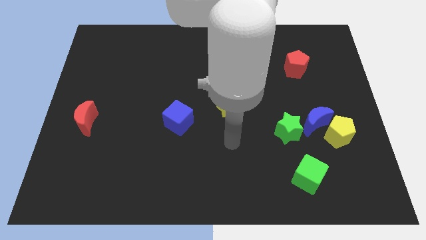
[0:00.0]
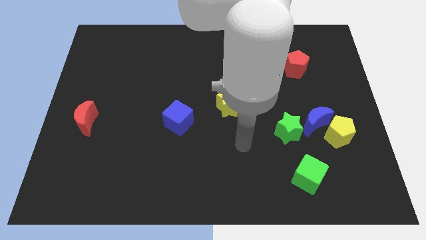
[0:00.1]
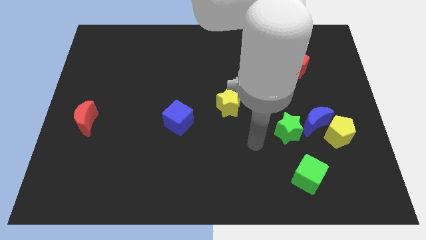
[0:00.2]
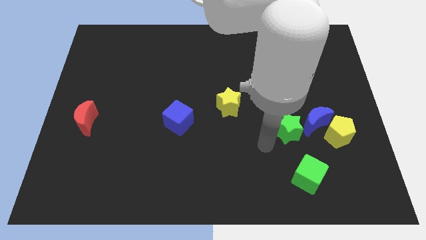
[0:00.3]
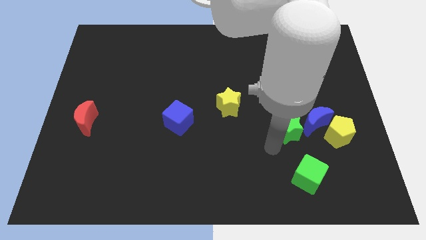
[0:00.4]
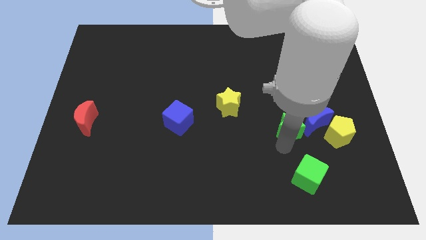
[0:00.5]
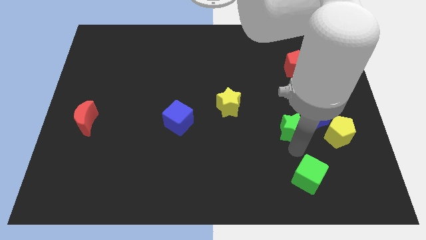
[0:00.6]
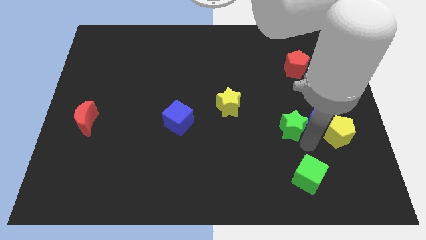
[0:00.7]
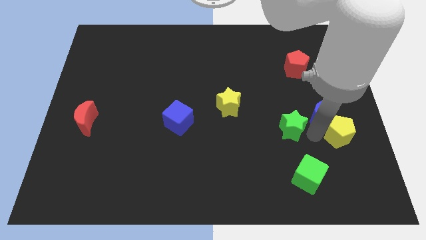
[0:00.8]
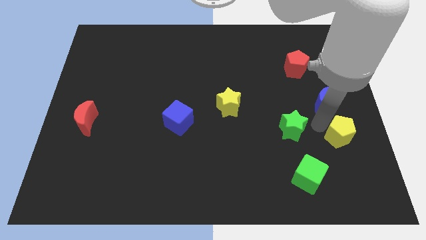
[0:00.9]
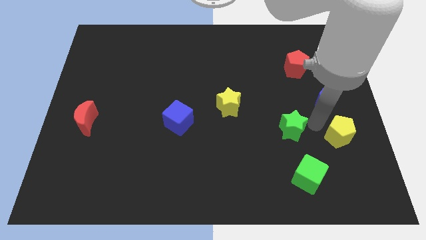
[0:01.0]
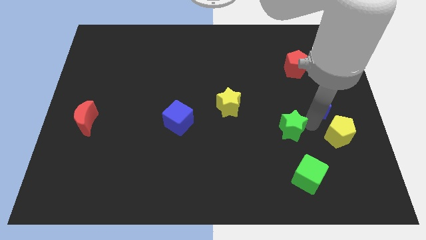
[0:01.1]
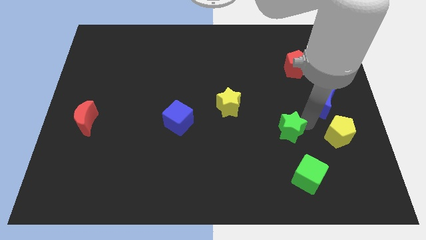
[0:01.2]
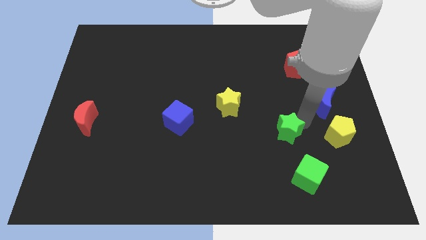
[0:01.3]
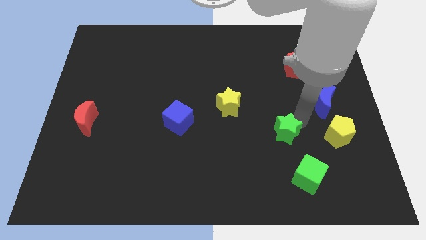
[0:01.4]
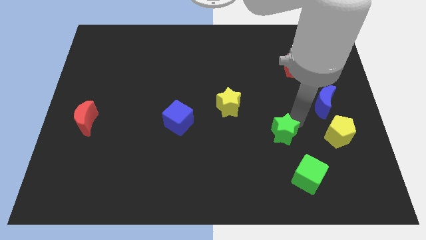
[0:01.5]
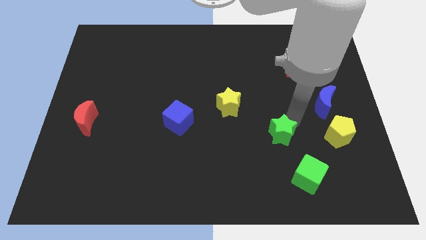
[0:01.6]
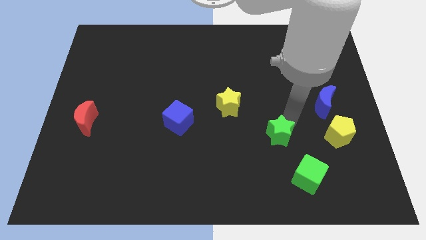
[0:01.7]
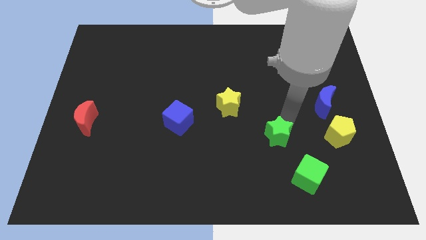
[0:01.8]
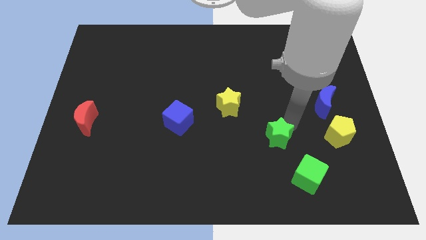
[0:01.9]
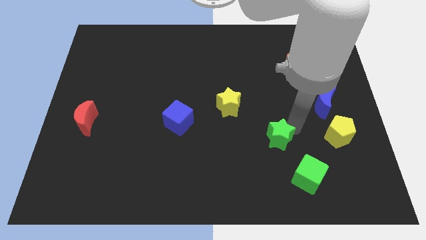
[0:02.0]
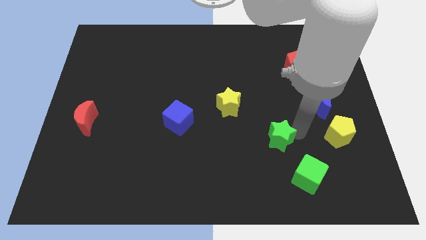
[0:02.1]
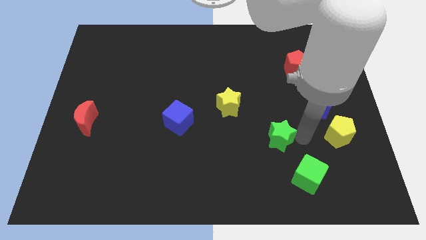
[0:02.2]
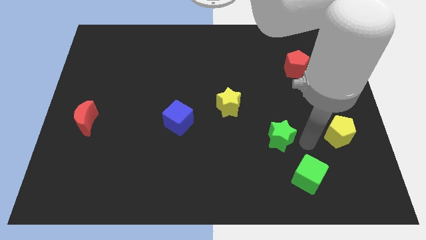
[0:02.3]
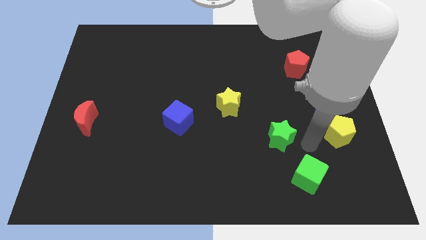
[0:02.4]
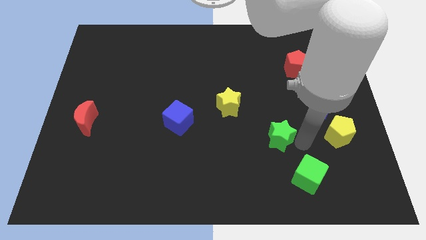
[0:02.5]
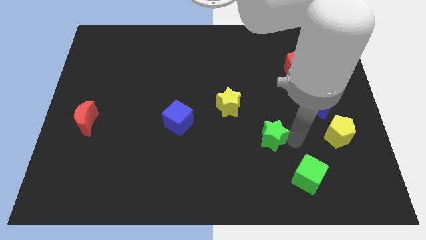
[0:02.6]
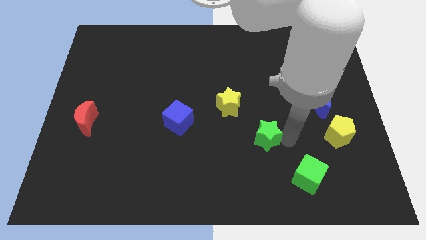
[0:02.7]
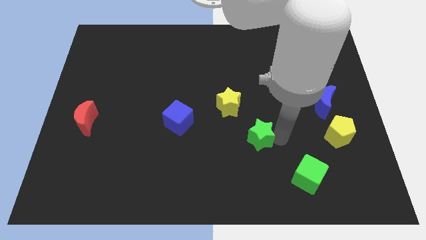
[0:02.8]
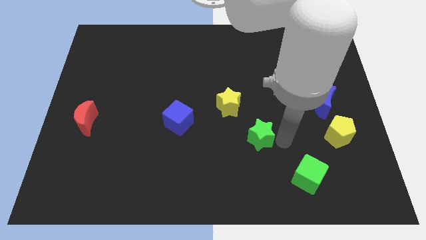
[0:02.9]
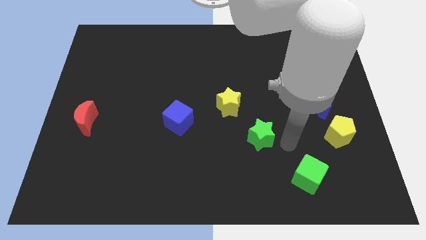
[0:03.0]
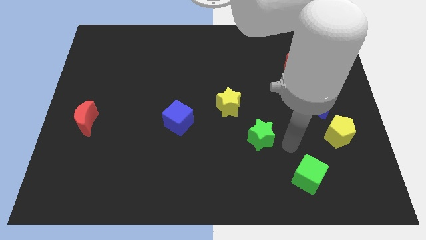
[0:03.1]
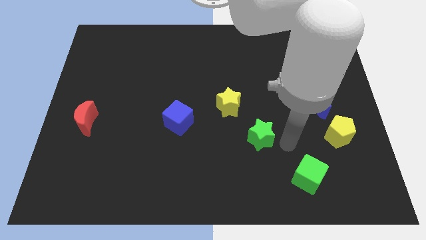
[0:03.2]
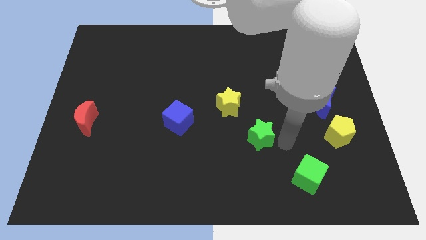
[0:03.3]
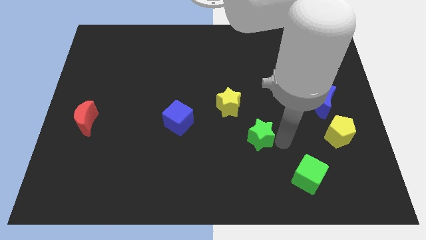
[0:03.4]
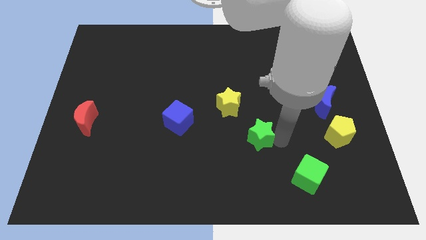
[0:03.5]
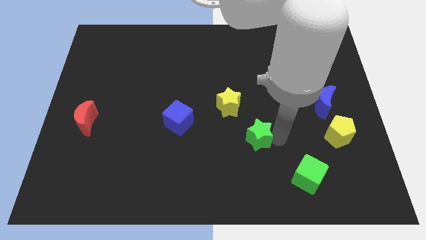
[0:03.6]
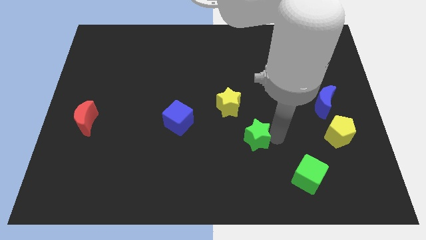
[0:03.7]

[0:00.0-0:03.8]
push the green star a little to the left

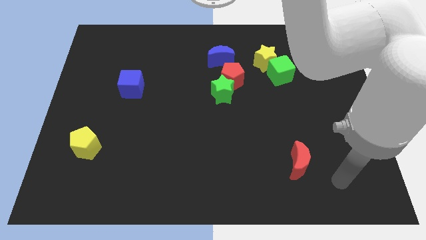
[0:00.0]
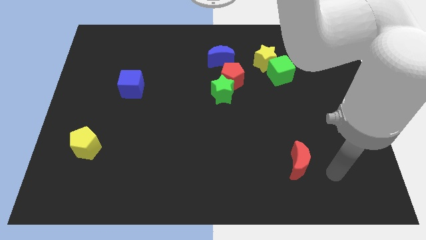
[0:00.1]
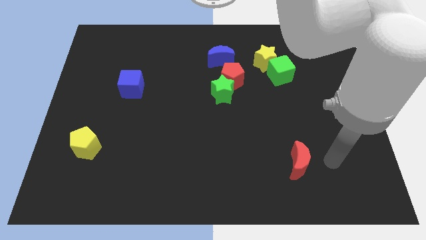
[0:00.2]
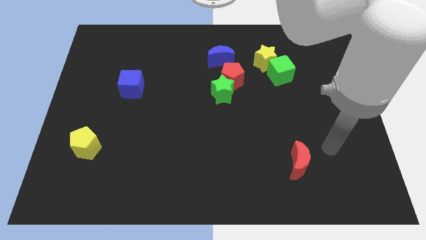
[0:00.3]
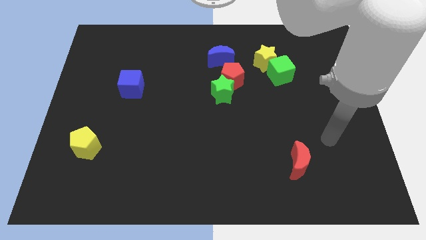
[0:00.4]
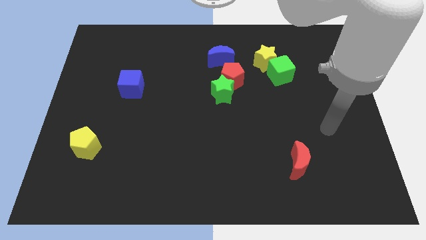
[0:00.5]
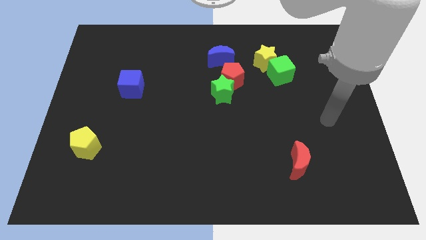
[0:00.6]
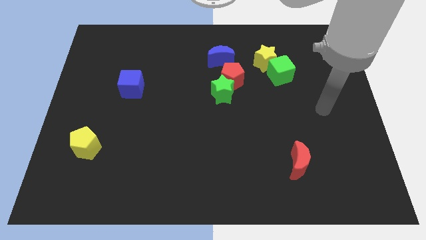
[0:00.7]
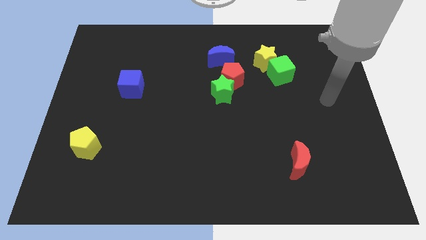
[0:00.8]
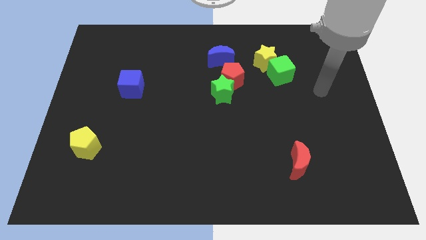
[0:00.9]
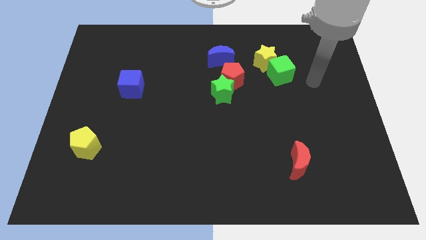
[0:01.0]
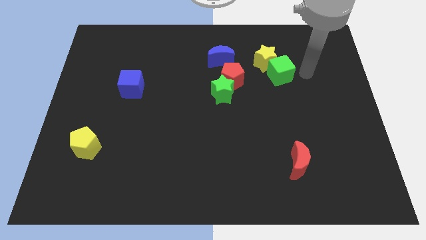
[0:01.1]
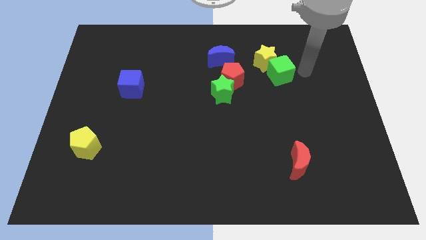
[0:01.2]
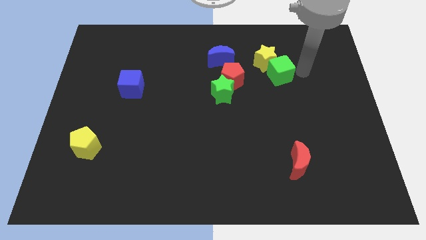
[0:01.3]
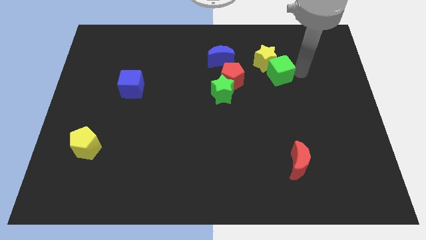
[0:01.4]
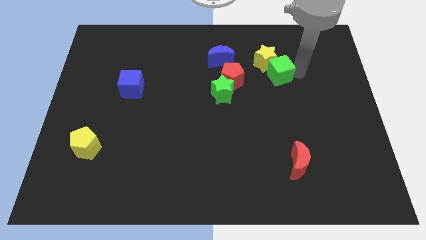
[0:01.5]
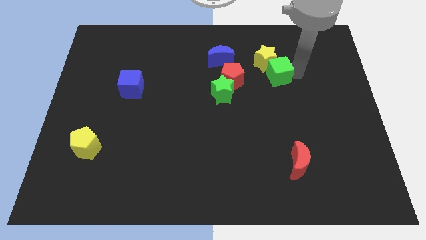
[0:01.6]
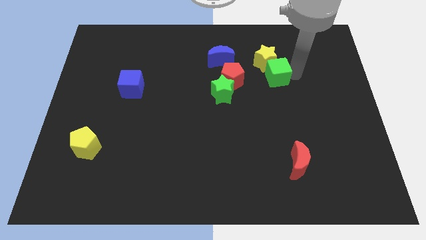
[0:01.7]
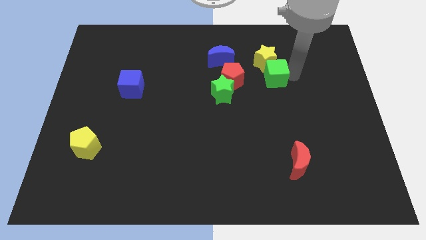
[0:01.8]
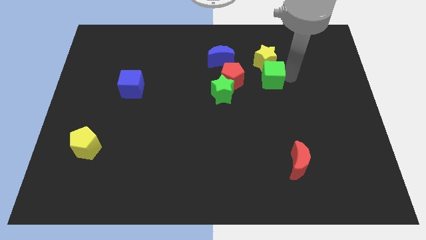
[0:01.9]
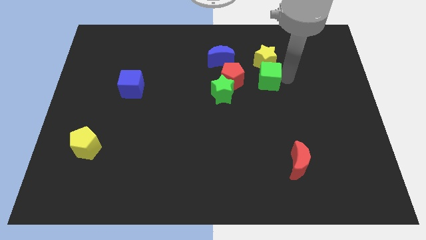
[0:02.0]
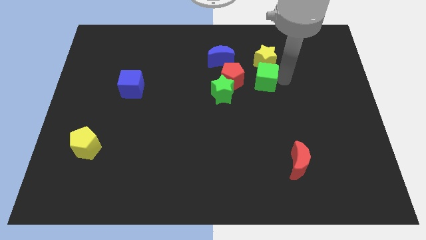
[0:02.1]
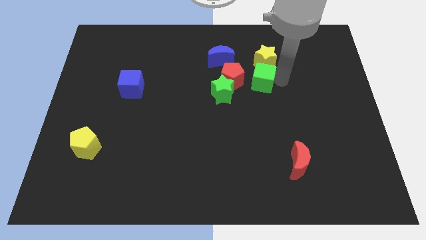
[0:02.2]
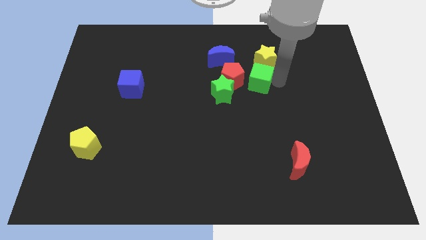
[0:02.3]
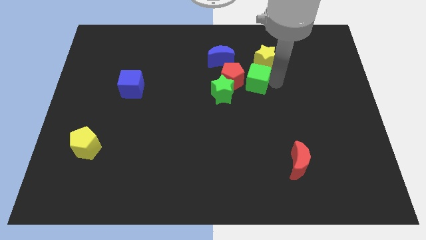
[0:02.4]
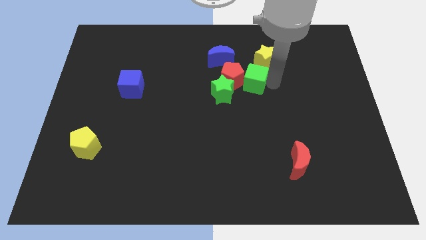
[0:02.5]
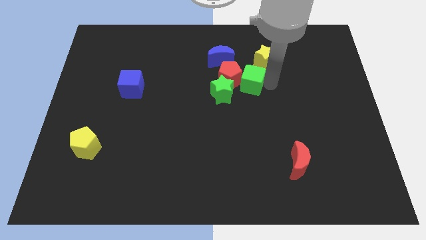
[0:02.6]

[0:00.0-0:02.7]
slide the green cube left a little

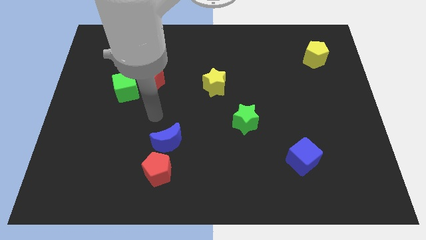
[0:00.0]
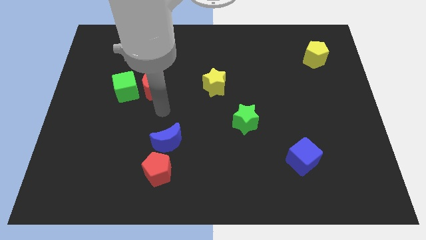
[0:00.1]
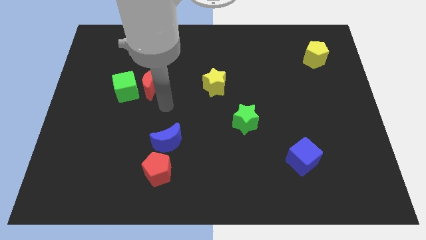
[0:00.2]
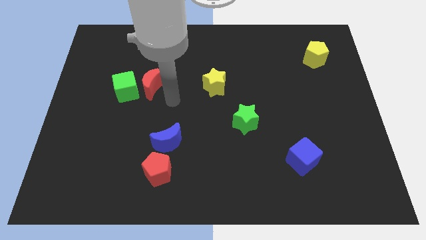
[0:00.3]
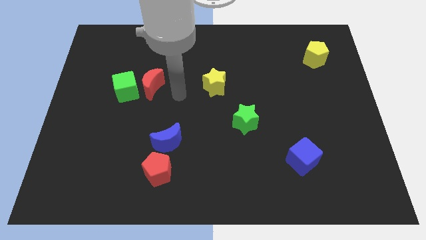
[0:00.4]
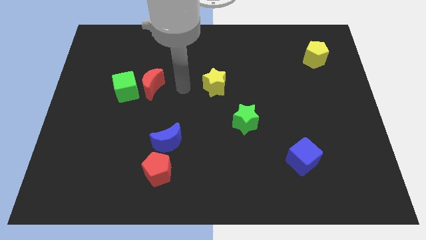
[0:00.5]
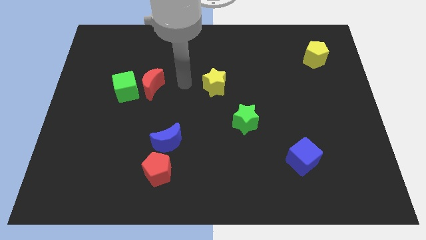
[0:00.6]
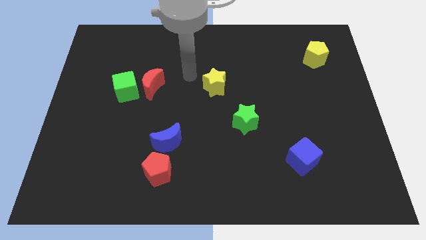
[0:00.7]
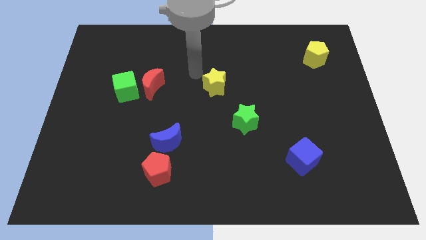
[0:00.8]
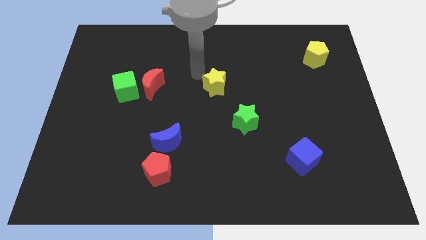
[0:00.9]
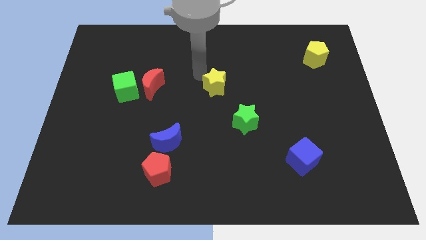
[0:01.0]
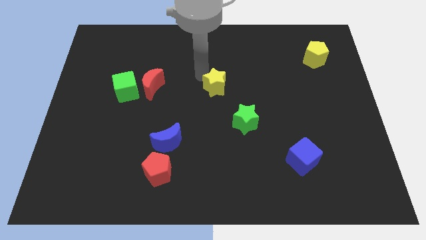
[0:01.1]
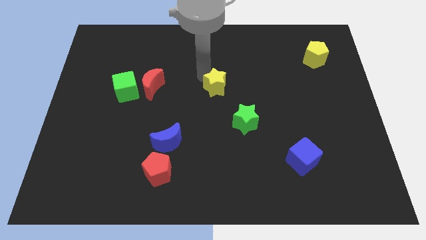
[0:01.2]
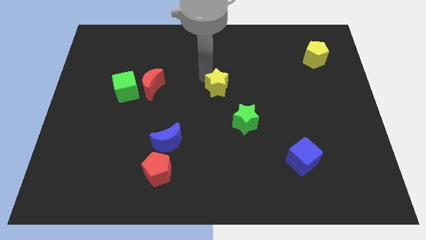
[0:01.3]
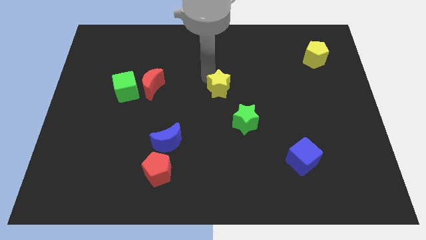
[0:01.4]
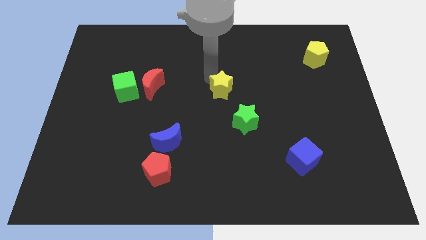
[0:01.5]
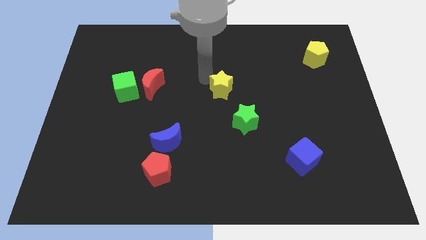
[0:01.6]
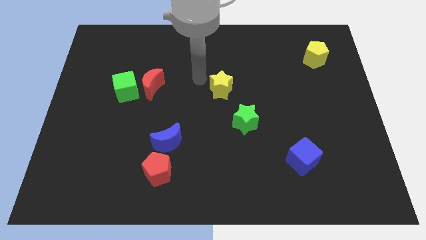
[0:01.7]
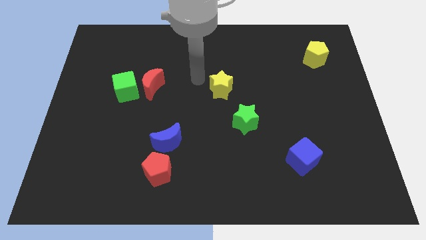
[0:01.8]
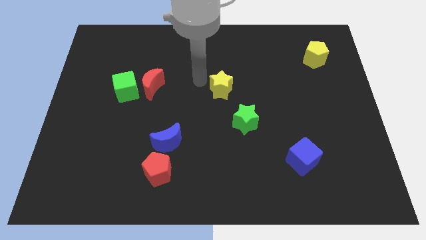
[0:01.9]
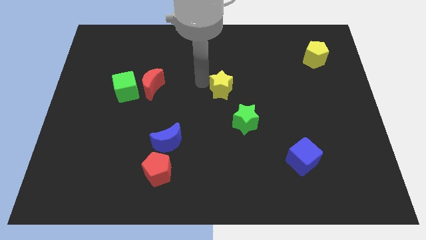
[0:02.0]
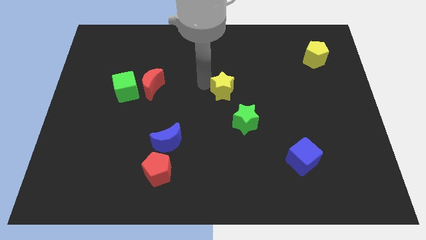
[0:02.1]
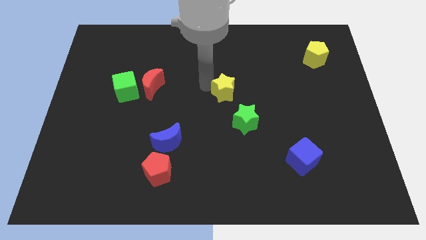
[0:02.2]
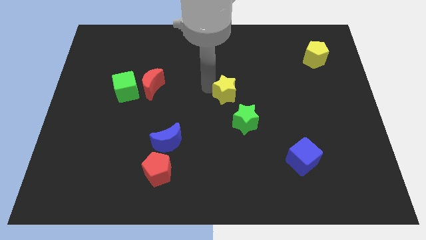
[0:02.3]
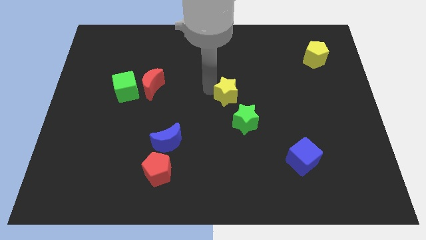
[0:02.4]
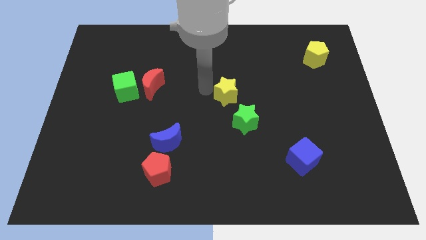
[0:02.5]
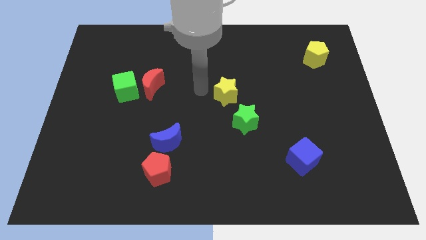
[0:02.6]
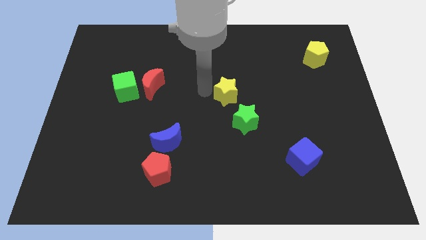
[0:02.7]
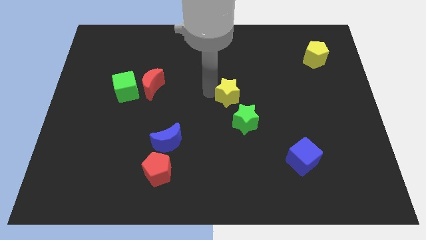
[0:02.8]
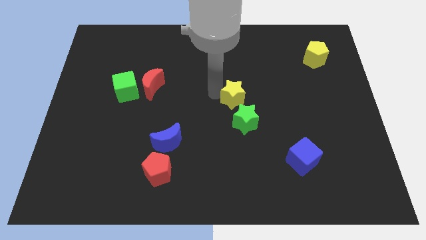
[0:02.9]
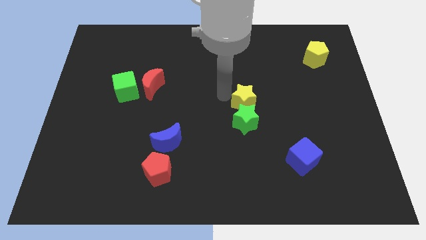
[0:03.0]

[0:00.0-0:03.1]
push the yellow star down and then to the right a little bit
